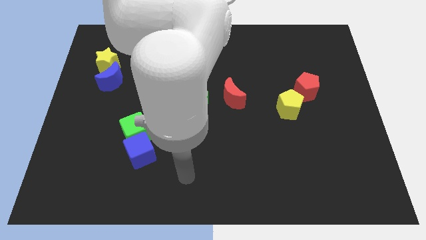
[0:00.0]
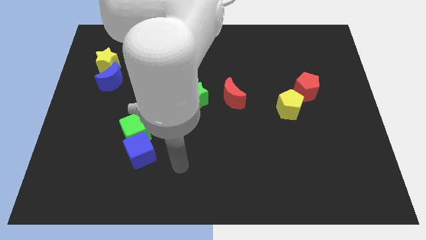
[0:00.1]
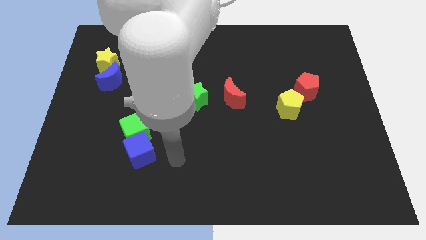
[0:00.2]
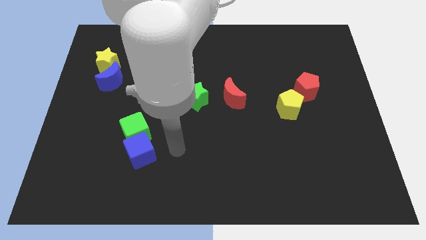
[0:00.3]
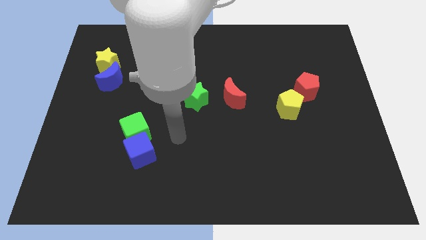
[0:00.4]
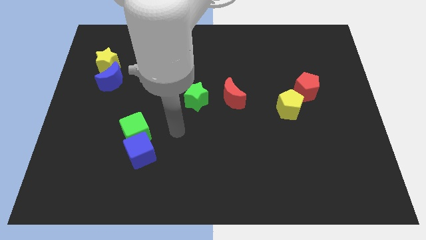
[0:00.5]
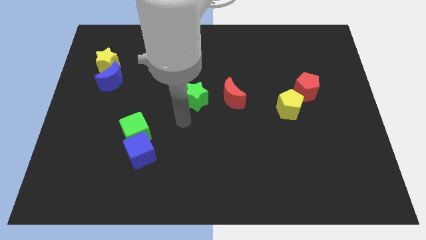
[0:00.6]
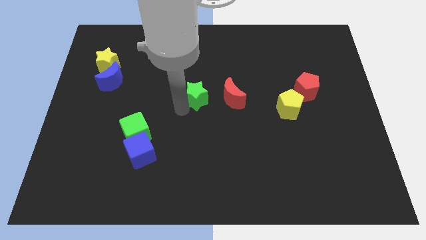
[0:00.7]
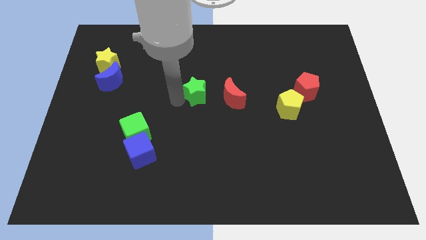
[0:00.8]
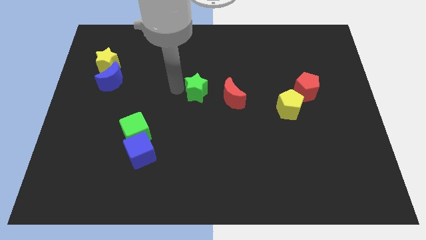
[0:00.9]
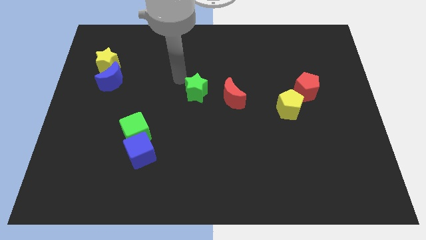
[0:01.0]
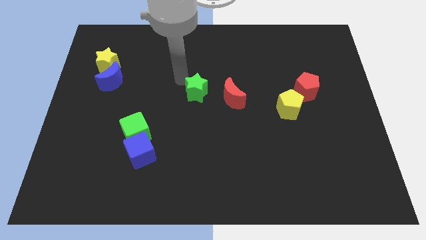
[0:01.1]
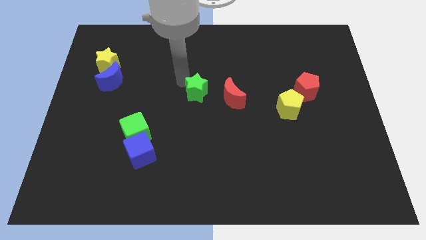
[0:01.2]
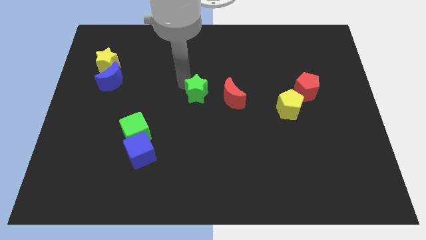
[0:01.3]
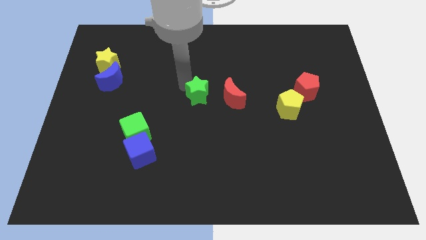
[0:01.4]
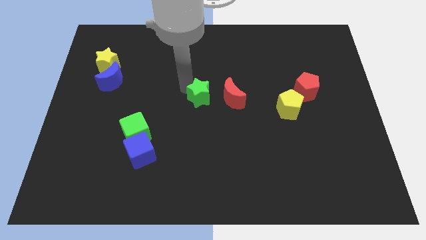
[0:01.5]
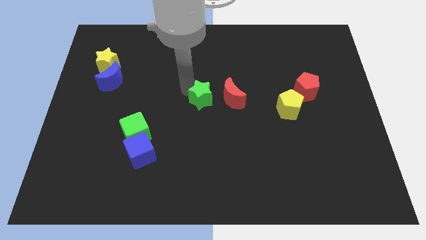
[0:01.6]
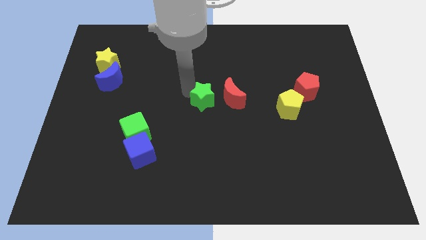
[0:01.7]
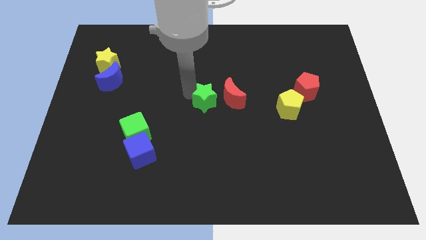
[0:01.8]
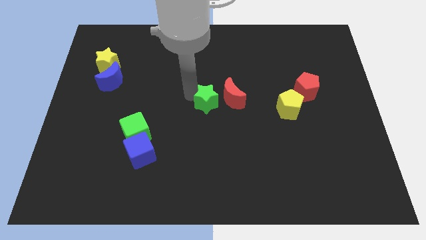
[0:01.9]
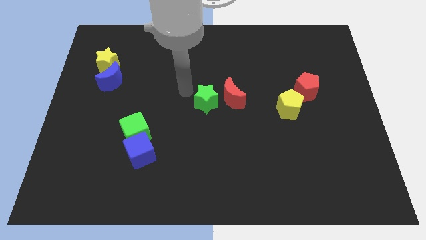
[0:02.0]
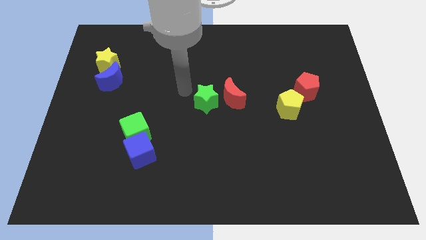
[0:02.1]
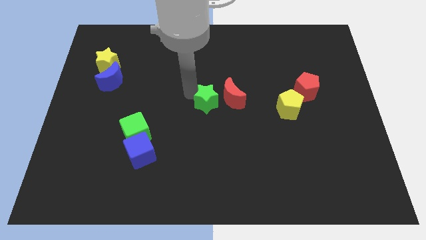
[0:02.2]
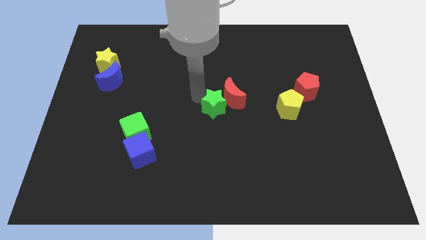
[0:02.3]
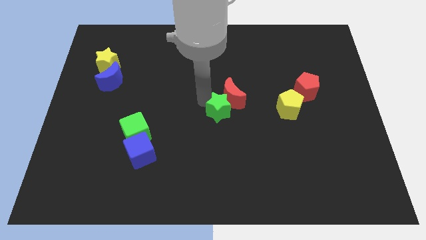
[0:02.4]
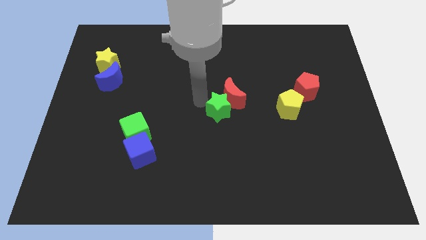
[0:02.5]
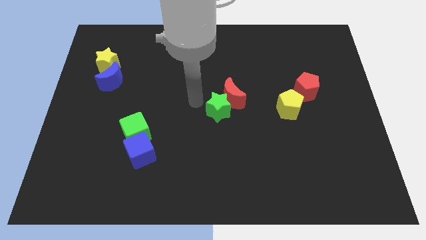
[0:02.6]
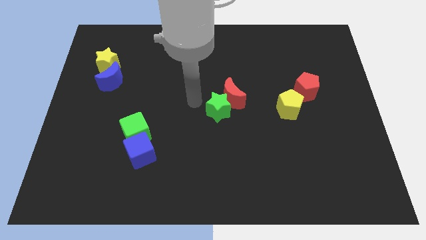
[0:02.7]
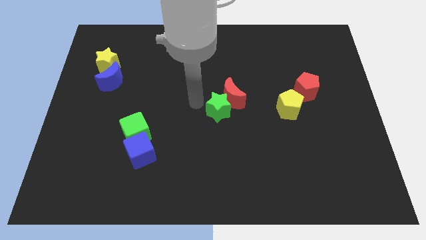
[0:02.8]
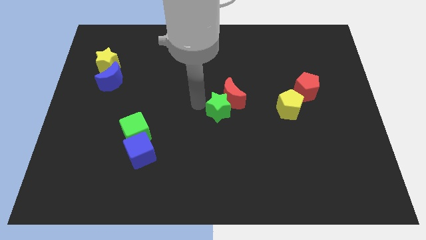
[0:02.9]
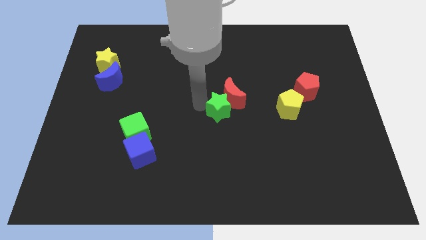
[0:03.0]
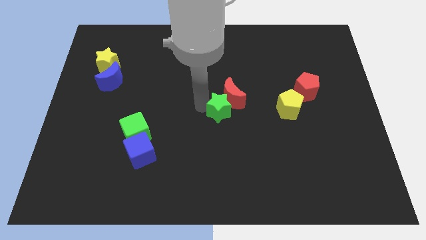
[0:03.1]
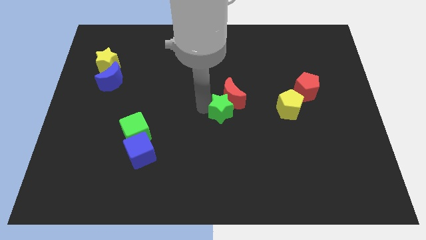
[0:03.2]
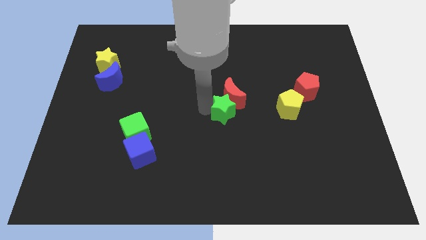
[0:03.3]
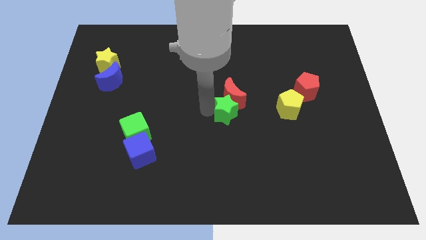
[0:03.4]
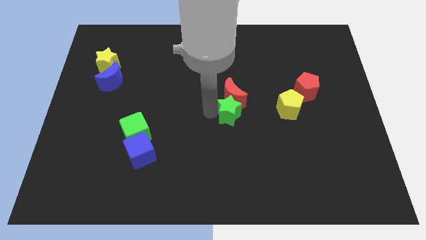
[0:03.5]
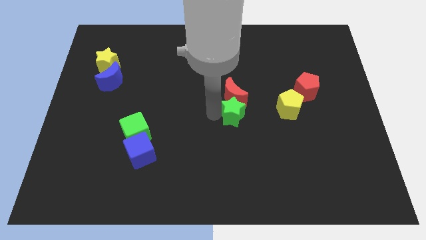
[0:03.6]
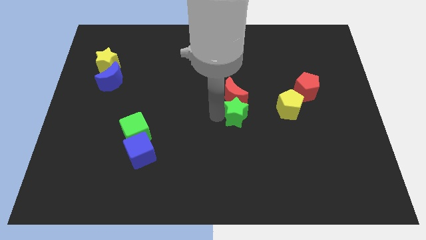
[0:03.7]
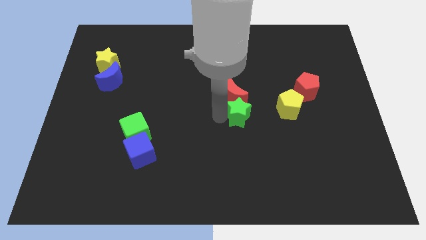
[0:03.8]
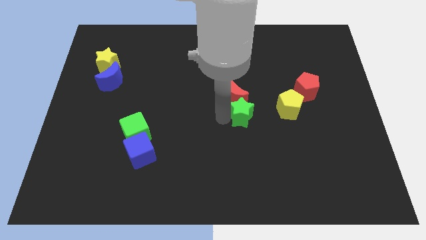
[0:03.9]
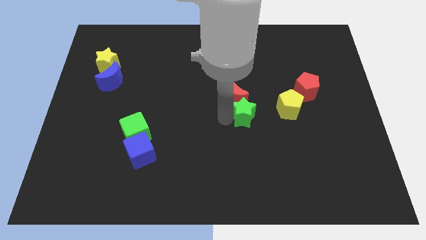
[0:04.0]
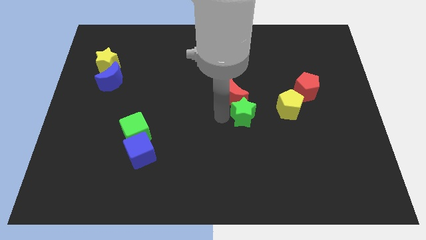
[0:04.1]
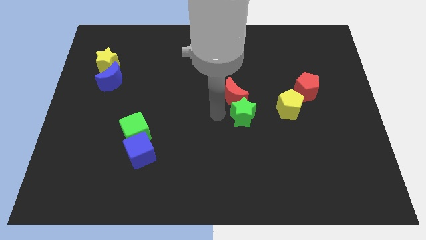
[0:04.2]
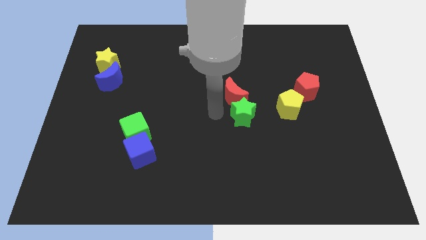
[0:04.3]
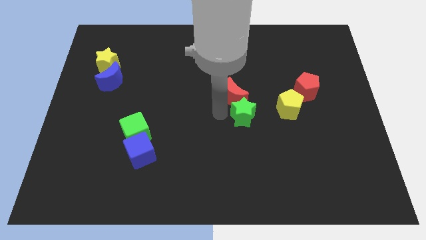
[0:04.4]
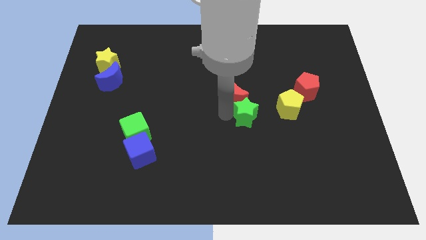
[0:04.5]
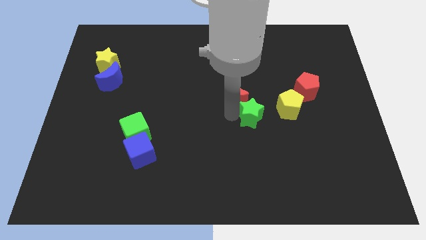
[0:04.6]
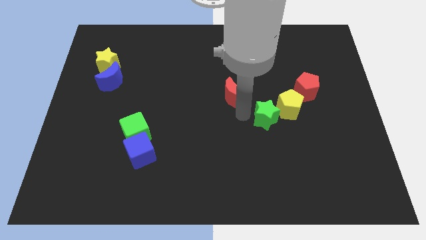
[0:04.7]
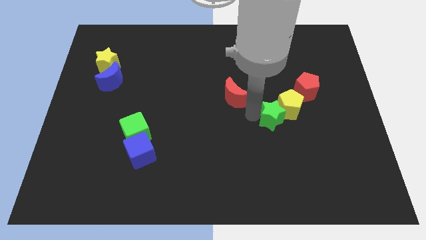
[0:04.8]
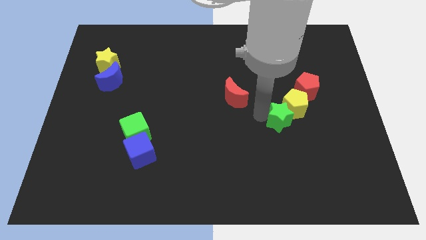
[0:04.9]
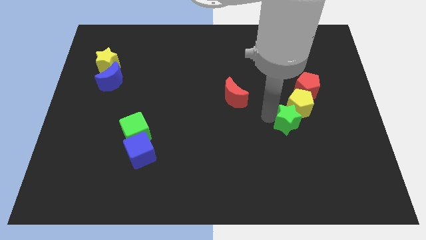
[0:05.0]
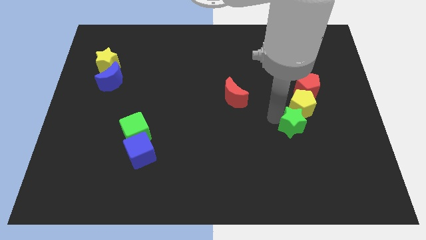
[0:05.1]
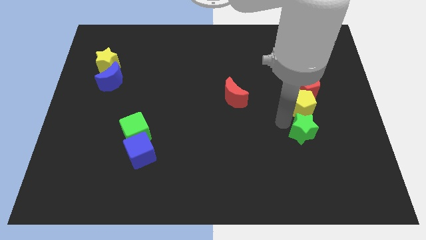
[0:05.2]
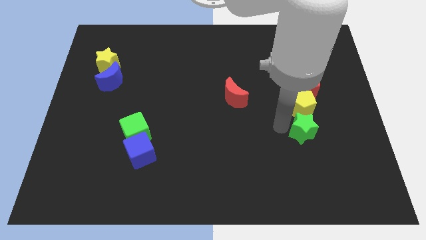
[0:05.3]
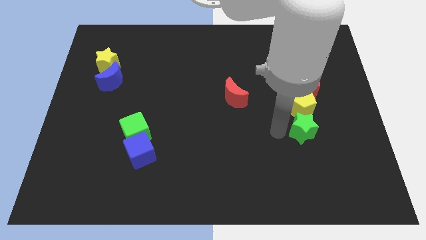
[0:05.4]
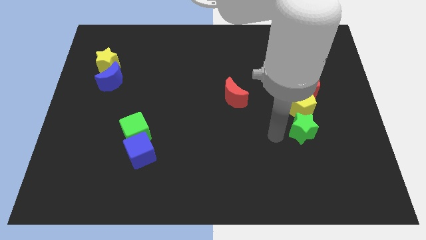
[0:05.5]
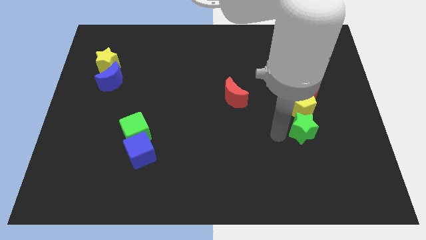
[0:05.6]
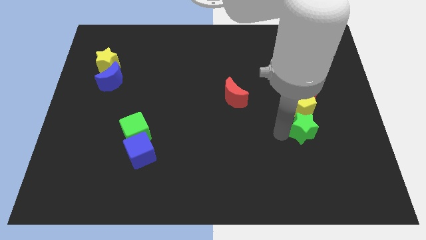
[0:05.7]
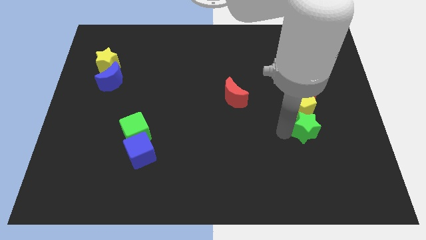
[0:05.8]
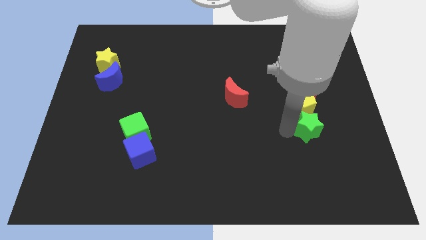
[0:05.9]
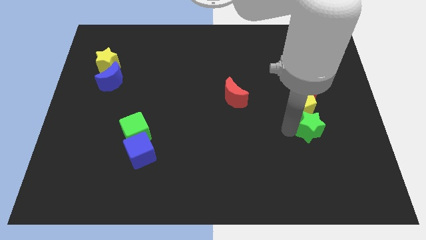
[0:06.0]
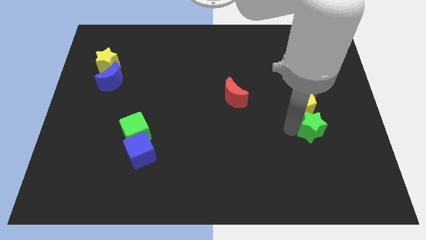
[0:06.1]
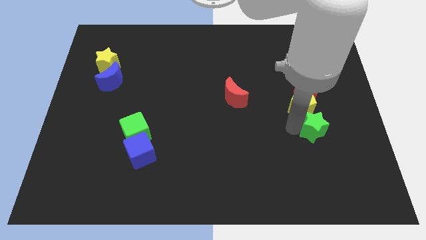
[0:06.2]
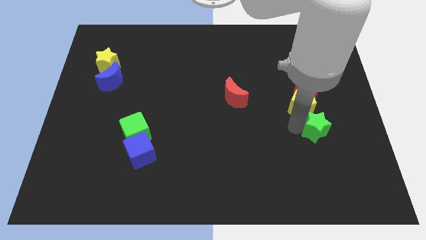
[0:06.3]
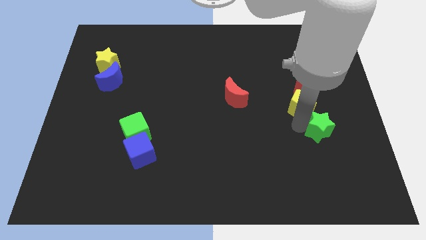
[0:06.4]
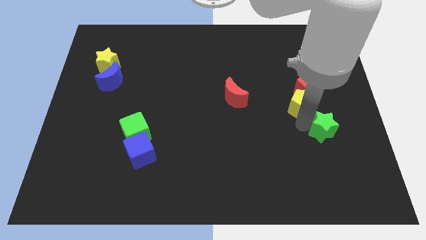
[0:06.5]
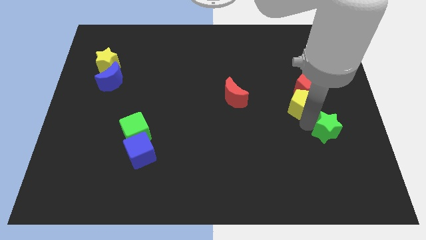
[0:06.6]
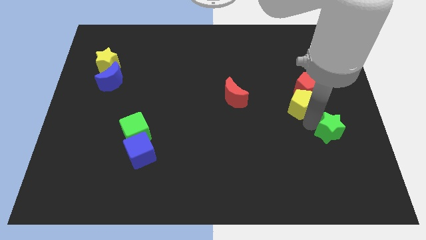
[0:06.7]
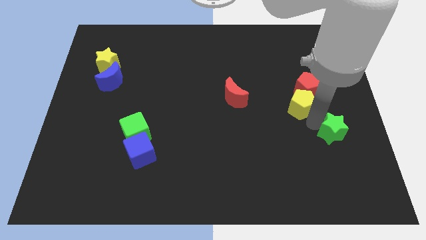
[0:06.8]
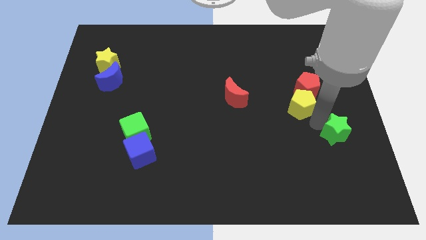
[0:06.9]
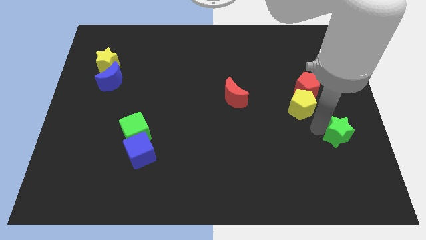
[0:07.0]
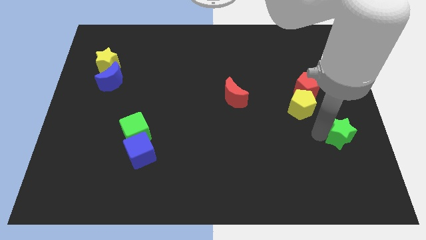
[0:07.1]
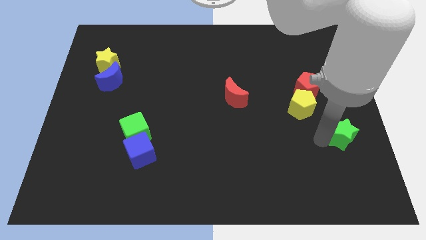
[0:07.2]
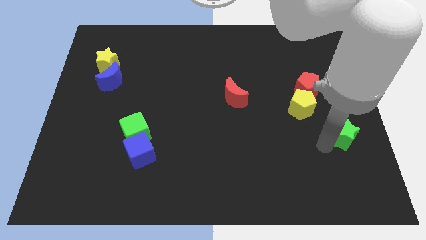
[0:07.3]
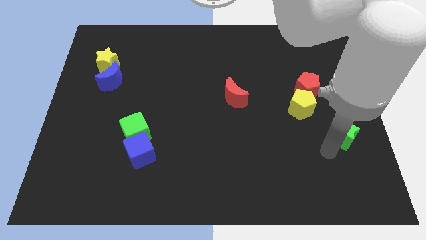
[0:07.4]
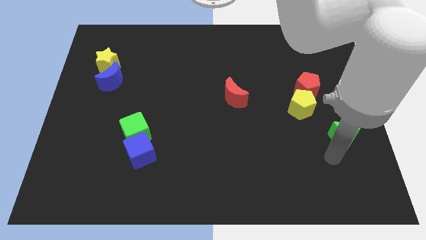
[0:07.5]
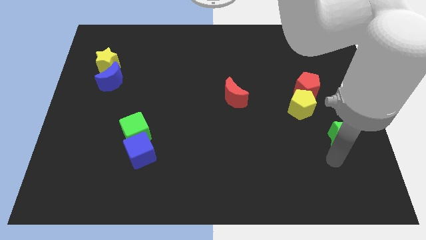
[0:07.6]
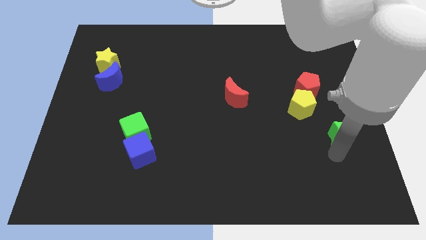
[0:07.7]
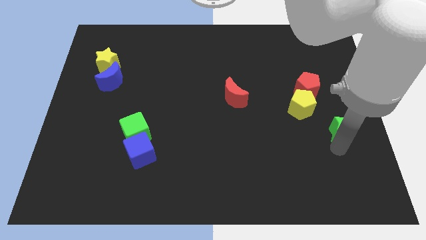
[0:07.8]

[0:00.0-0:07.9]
slide the green star to the right side
